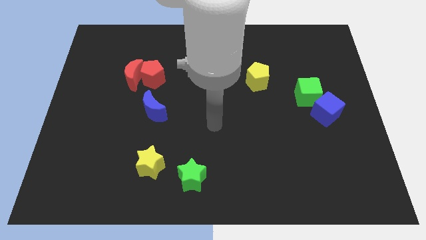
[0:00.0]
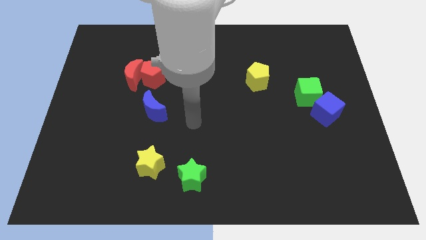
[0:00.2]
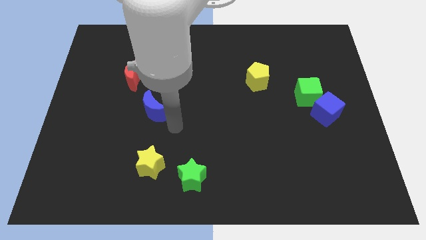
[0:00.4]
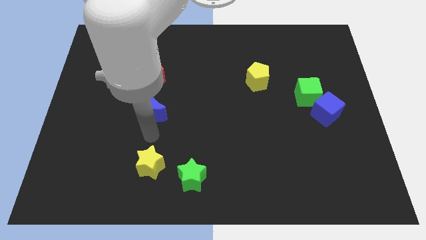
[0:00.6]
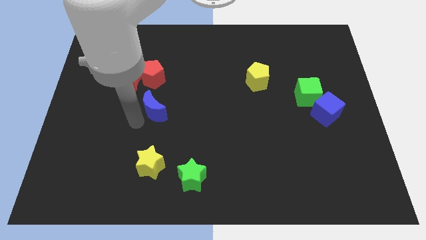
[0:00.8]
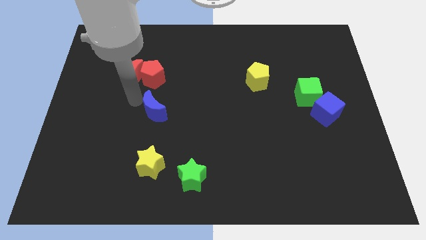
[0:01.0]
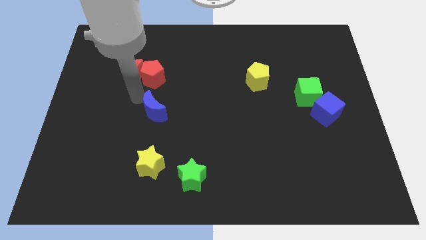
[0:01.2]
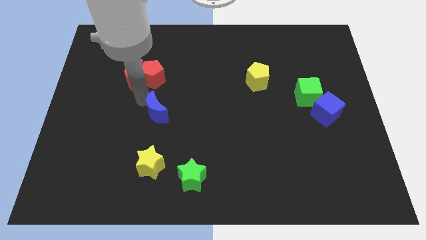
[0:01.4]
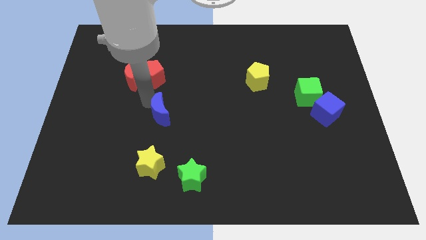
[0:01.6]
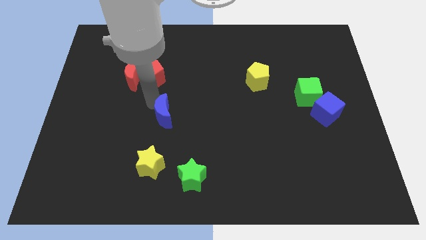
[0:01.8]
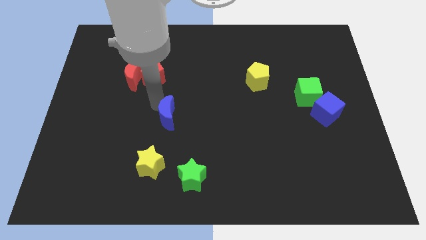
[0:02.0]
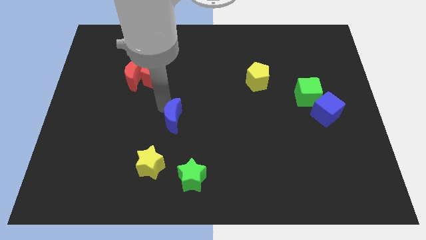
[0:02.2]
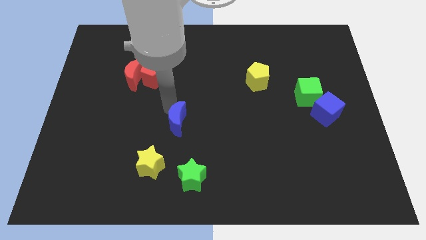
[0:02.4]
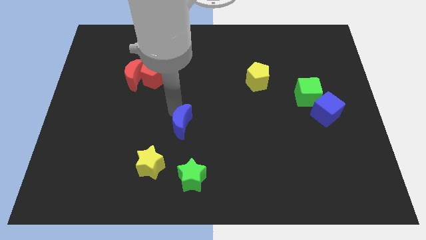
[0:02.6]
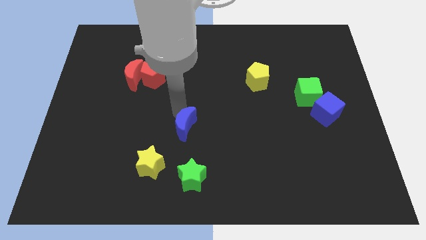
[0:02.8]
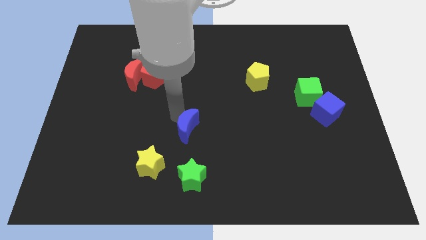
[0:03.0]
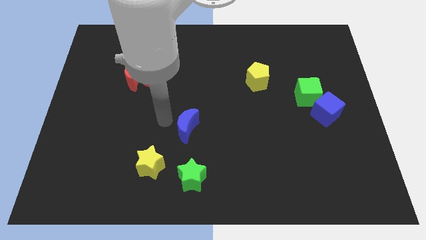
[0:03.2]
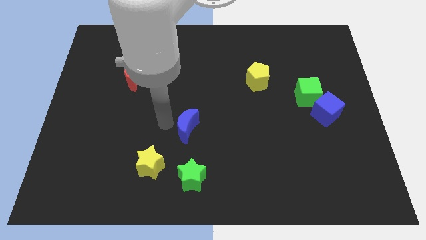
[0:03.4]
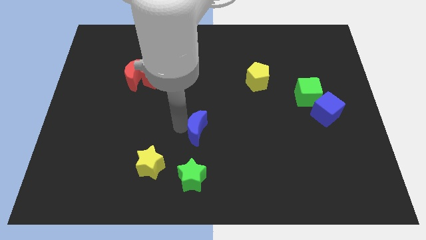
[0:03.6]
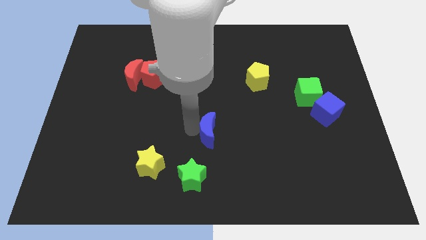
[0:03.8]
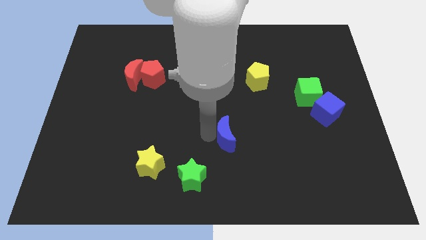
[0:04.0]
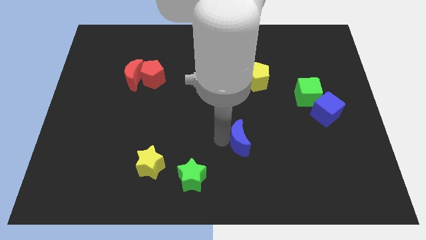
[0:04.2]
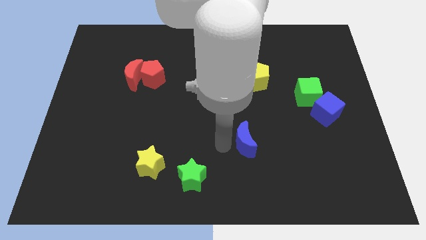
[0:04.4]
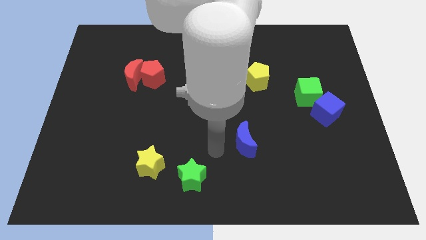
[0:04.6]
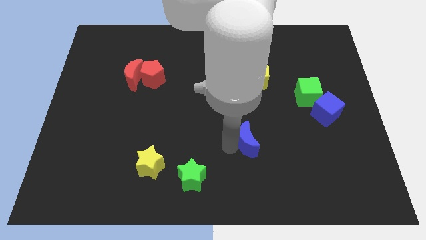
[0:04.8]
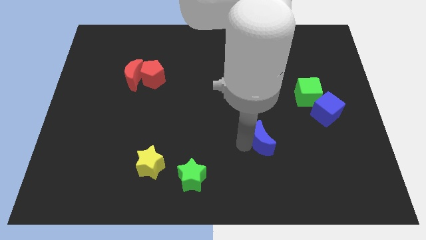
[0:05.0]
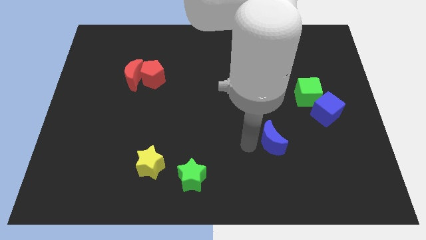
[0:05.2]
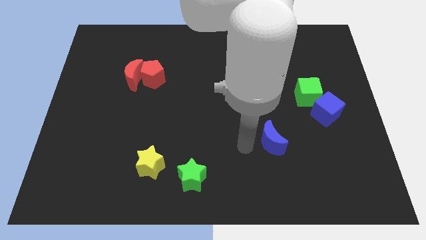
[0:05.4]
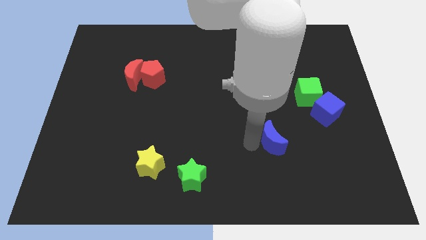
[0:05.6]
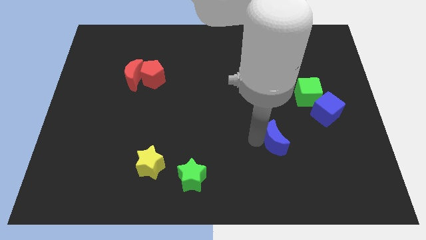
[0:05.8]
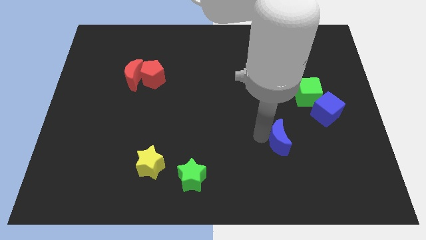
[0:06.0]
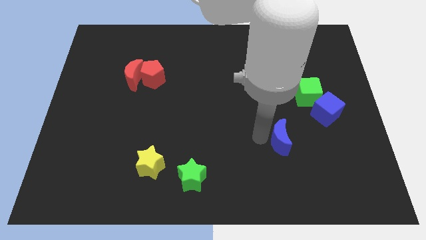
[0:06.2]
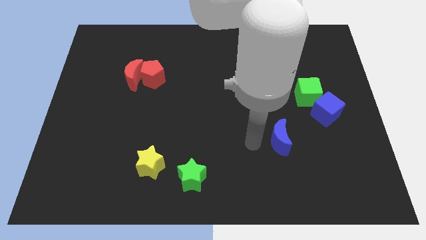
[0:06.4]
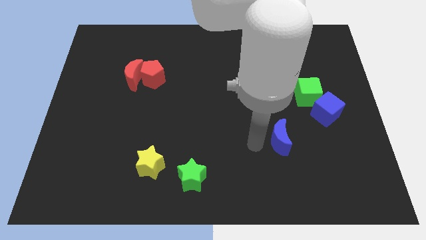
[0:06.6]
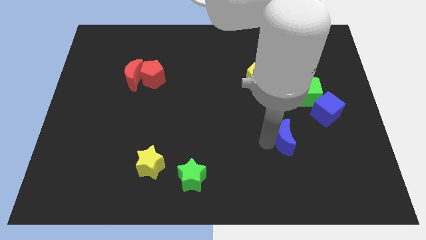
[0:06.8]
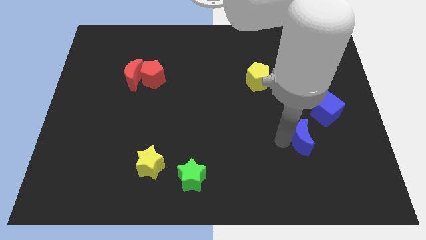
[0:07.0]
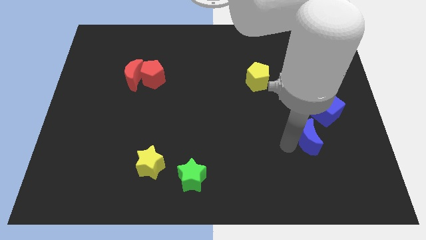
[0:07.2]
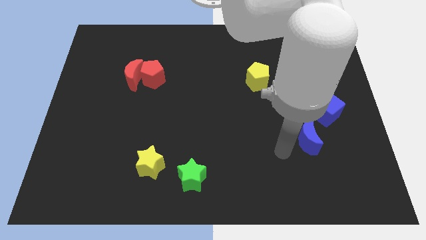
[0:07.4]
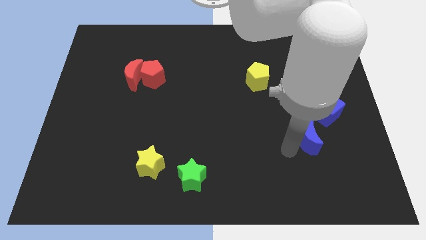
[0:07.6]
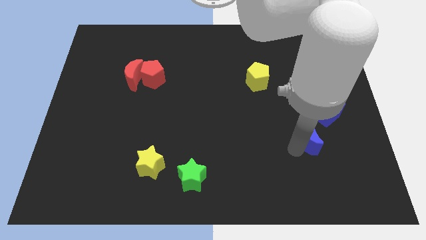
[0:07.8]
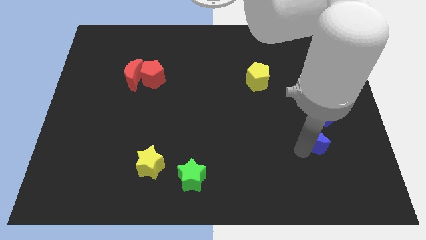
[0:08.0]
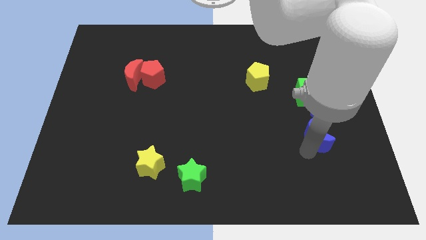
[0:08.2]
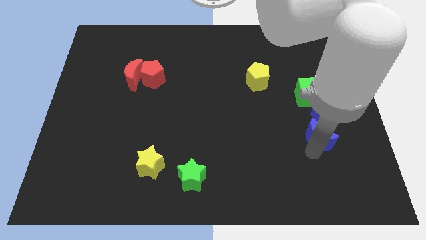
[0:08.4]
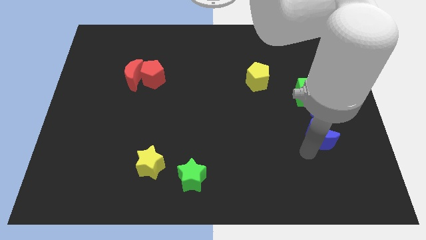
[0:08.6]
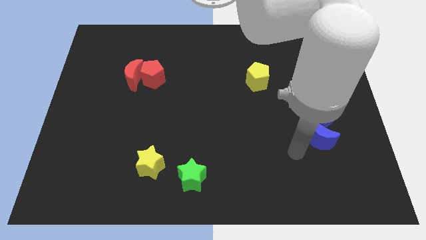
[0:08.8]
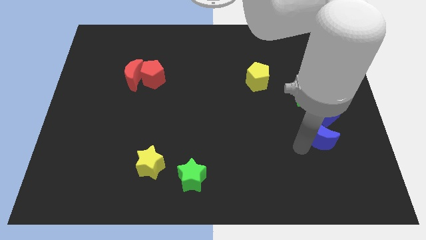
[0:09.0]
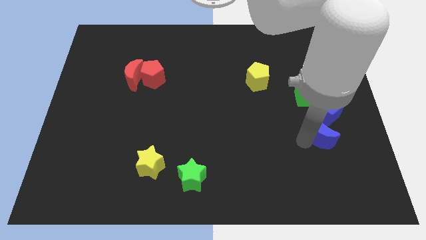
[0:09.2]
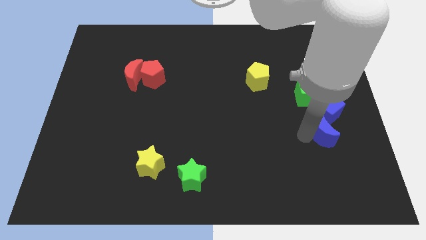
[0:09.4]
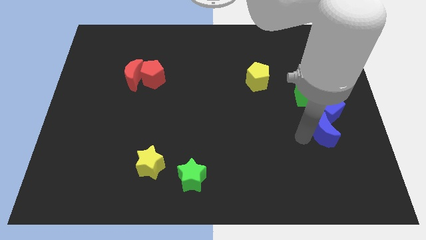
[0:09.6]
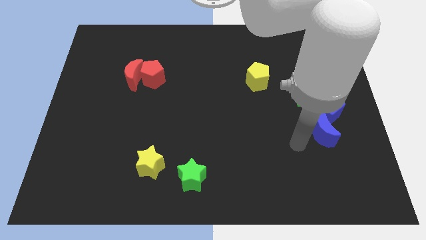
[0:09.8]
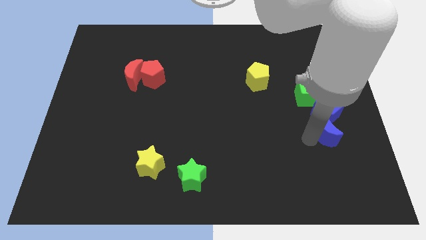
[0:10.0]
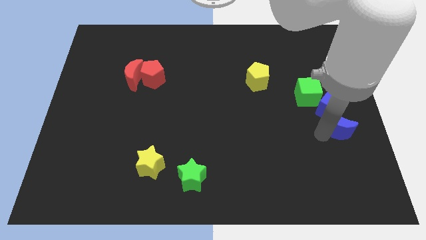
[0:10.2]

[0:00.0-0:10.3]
push the blue moon to the center right
